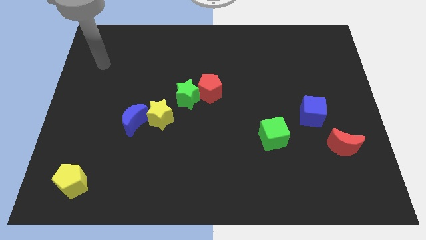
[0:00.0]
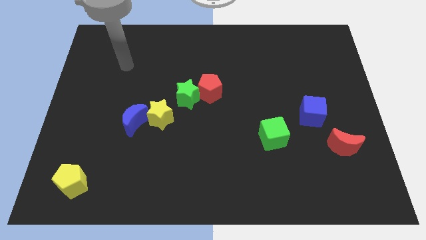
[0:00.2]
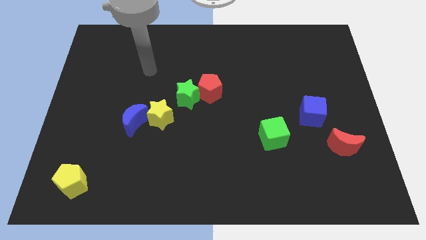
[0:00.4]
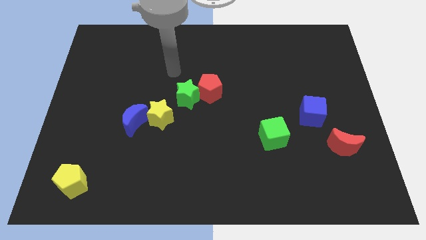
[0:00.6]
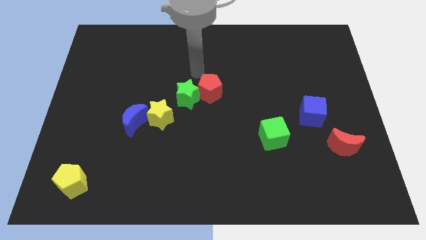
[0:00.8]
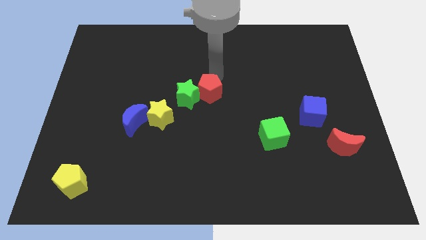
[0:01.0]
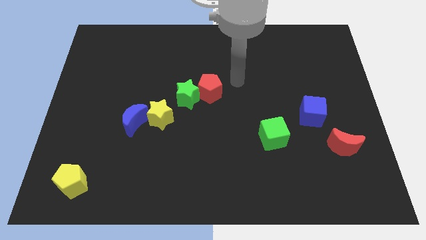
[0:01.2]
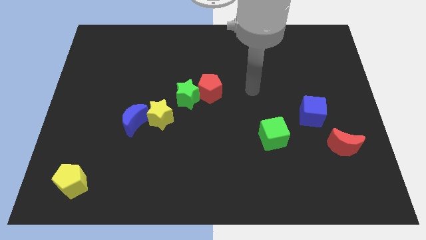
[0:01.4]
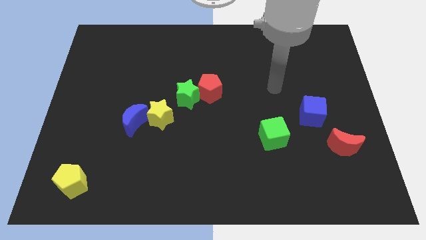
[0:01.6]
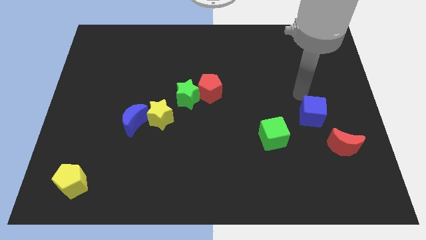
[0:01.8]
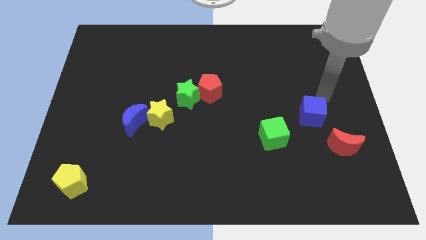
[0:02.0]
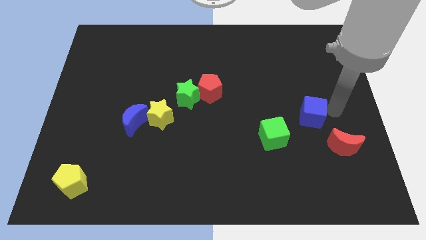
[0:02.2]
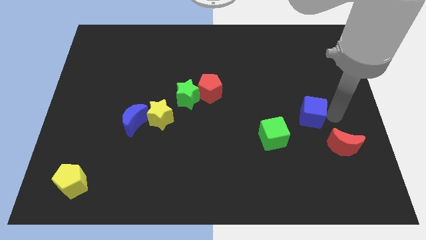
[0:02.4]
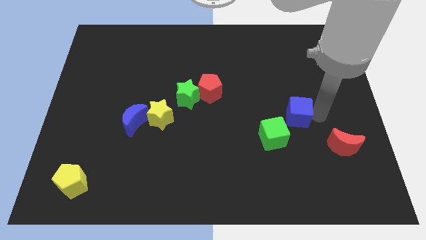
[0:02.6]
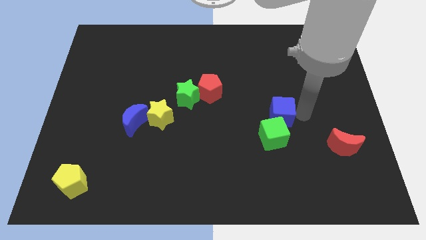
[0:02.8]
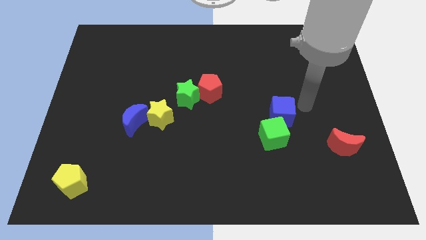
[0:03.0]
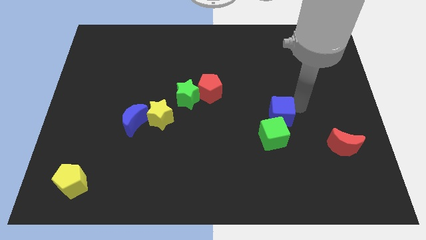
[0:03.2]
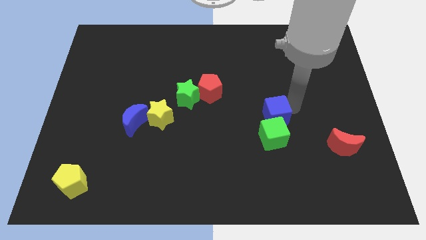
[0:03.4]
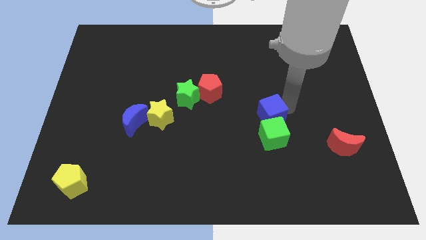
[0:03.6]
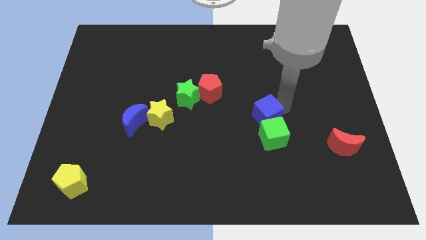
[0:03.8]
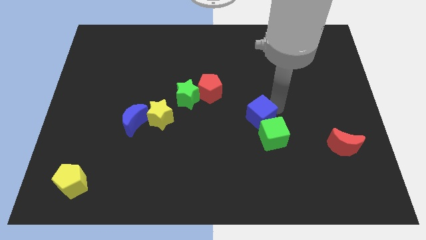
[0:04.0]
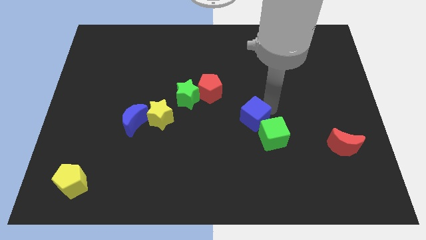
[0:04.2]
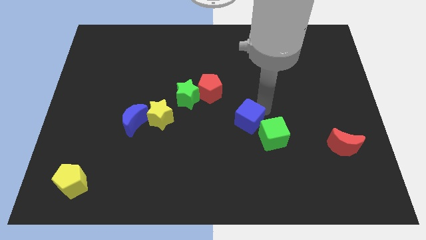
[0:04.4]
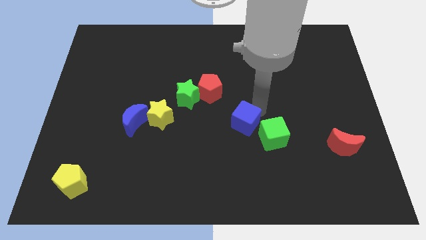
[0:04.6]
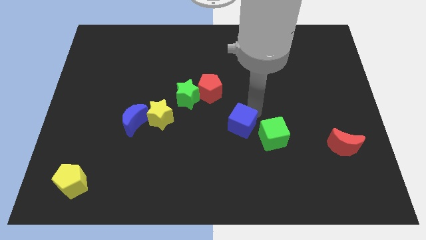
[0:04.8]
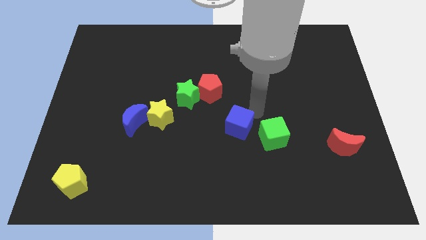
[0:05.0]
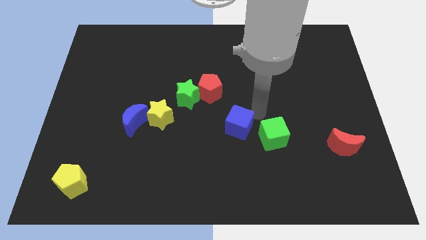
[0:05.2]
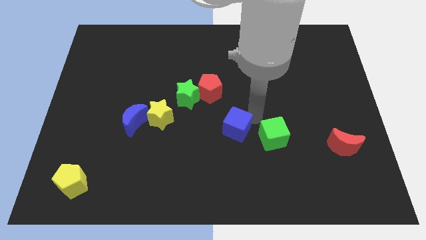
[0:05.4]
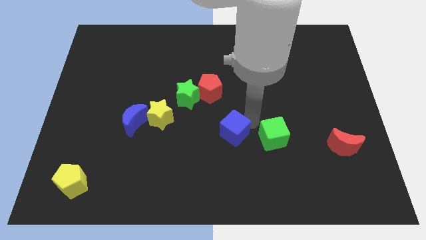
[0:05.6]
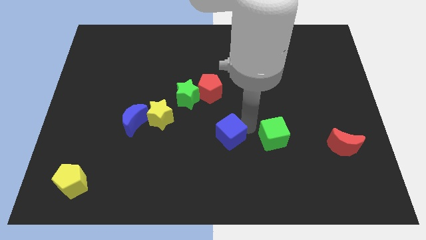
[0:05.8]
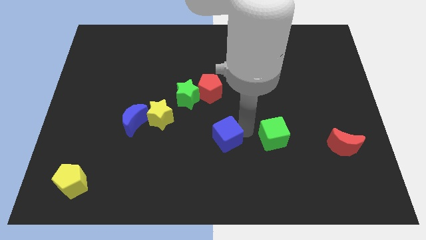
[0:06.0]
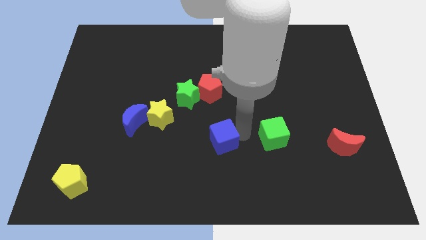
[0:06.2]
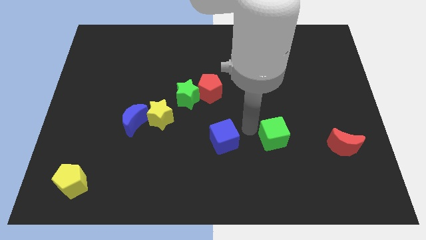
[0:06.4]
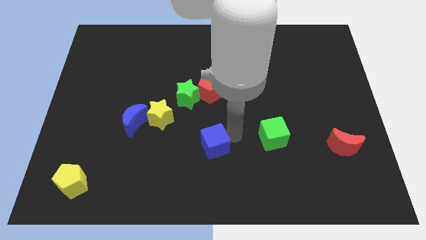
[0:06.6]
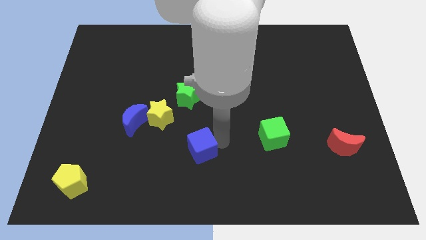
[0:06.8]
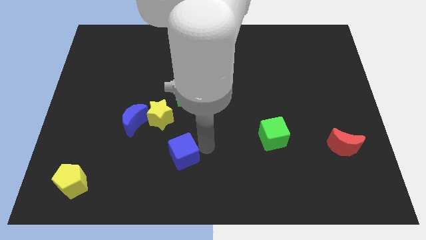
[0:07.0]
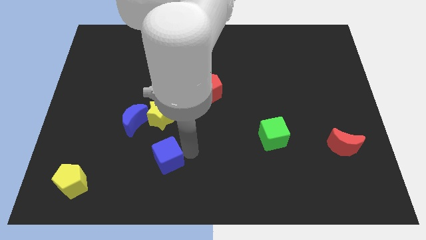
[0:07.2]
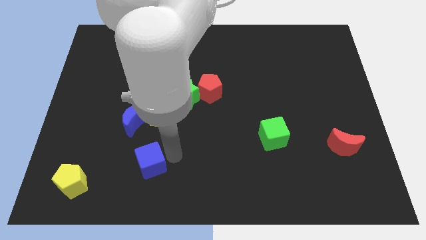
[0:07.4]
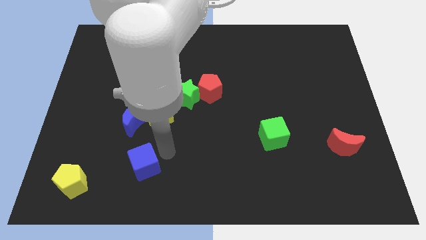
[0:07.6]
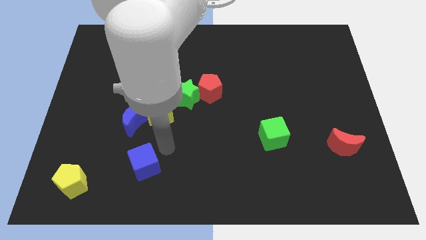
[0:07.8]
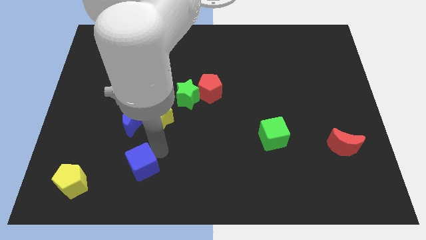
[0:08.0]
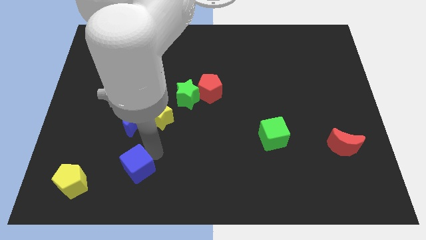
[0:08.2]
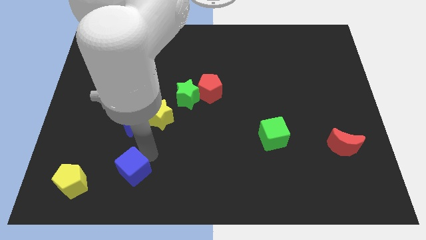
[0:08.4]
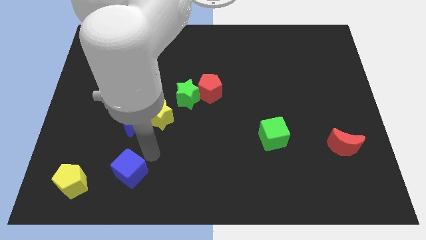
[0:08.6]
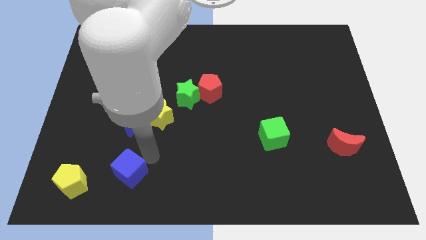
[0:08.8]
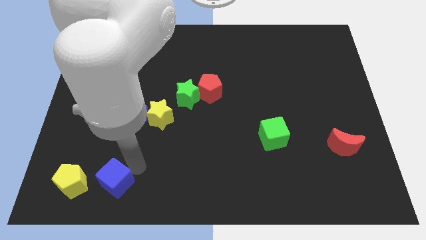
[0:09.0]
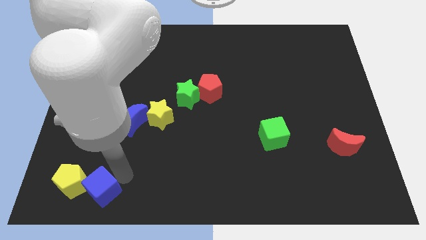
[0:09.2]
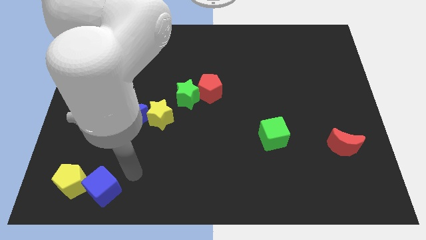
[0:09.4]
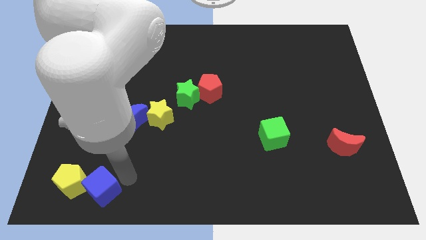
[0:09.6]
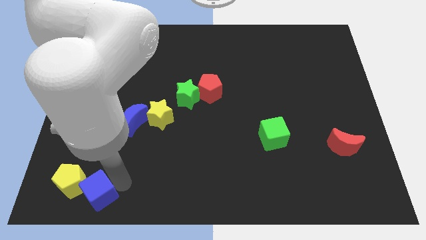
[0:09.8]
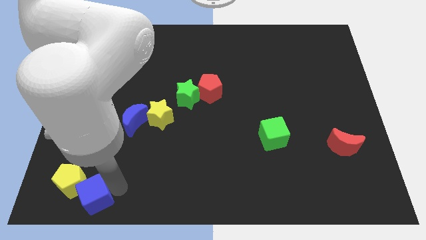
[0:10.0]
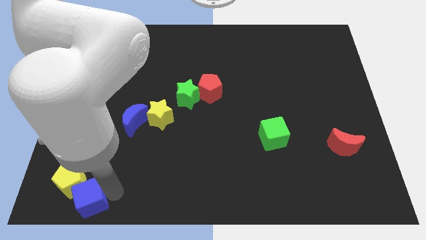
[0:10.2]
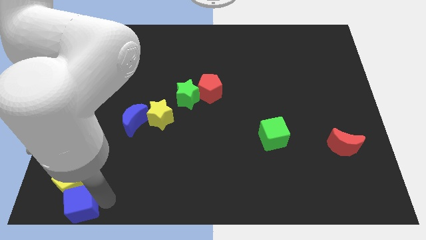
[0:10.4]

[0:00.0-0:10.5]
push the blue cube to the bottom left

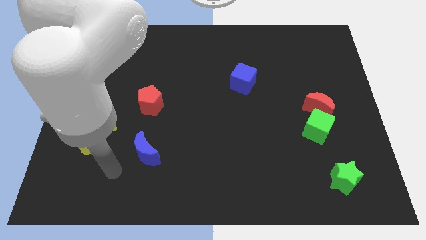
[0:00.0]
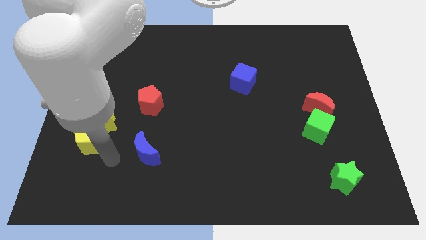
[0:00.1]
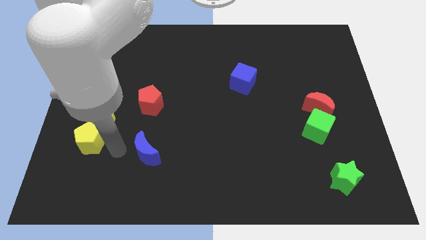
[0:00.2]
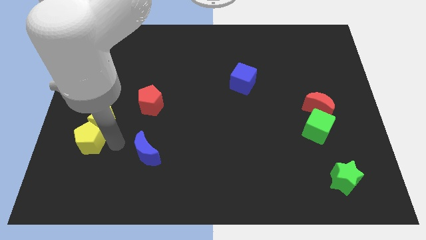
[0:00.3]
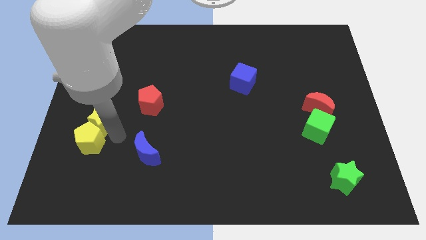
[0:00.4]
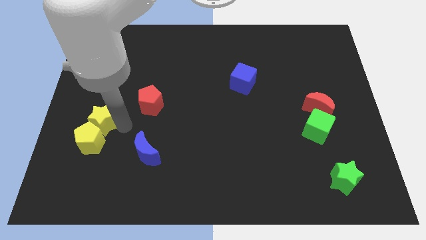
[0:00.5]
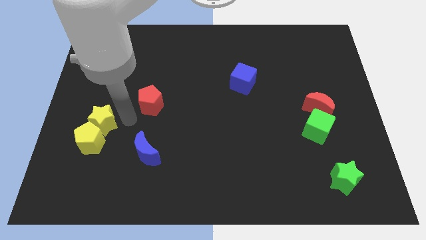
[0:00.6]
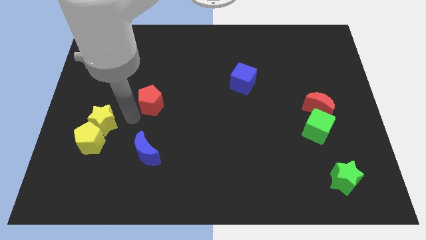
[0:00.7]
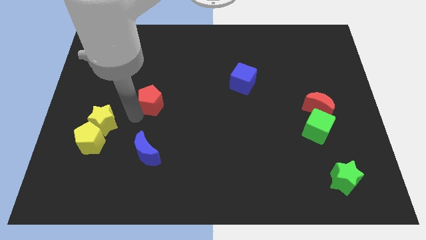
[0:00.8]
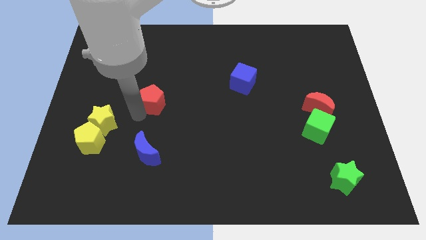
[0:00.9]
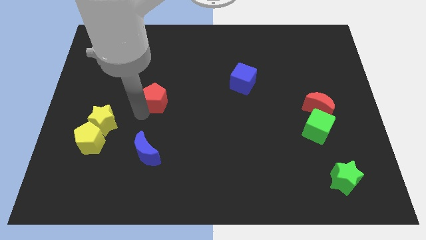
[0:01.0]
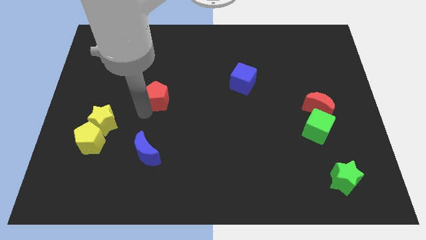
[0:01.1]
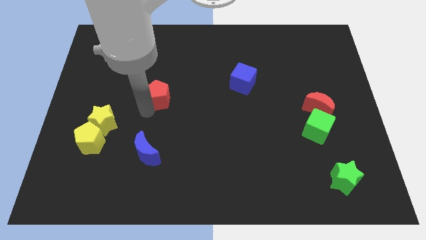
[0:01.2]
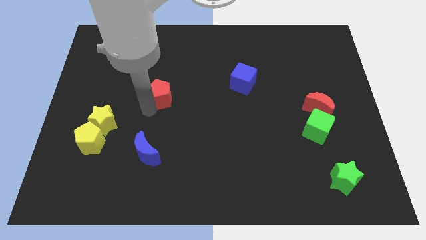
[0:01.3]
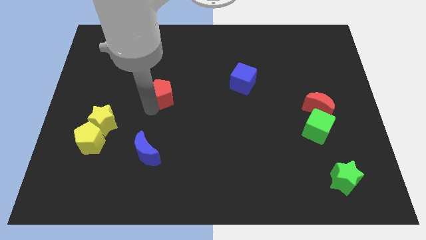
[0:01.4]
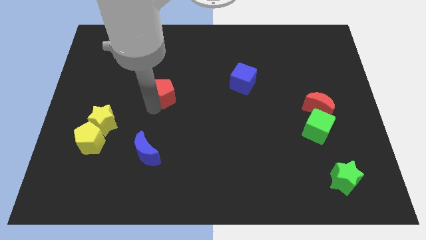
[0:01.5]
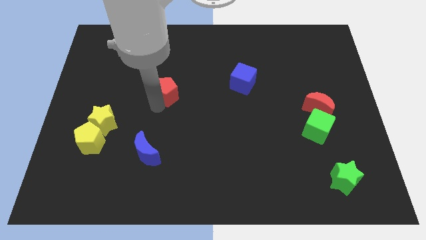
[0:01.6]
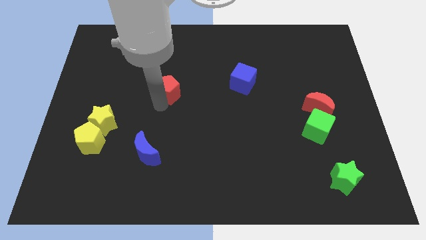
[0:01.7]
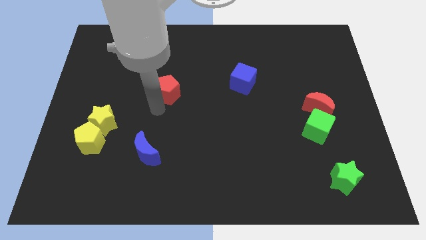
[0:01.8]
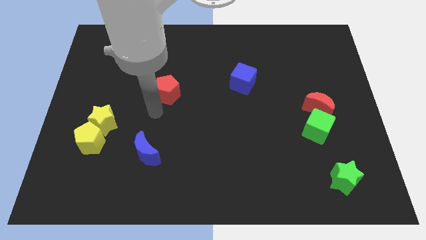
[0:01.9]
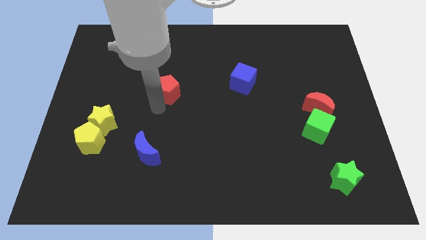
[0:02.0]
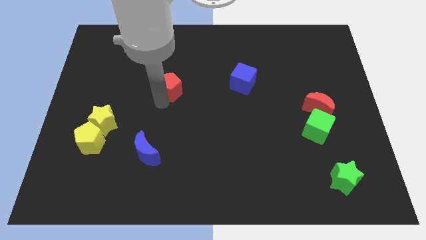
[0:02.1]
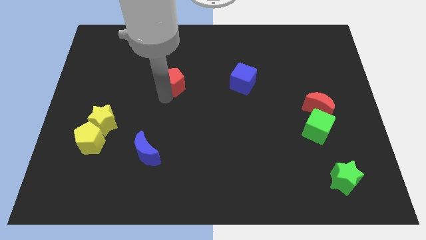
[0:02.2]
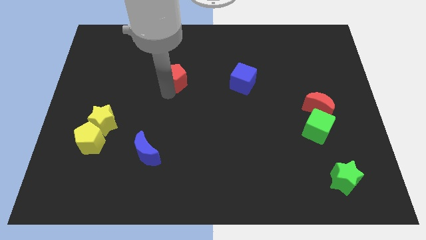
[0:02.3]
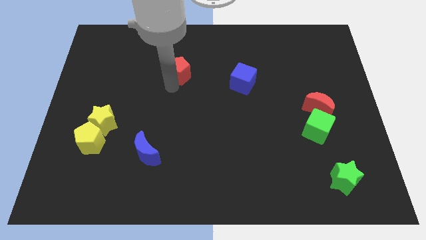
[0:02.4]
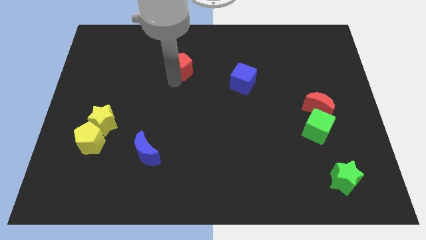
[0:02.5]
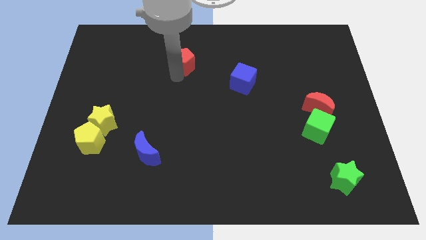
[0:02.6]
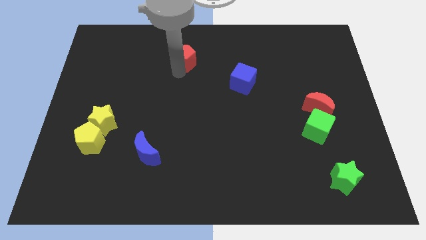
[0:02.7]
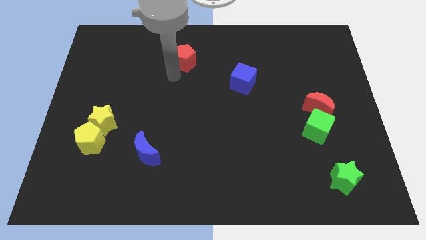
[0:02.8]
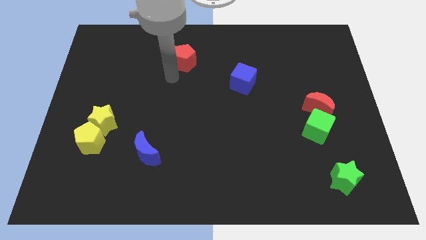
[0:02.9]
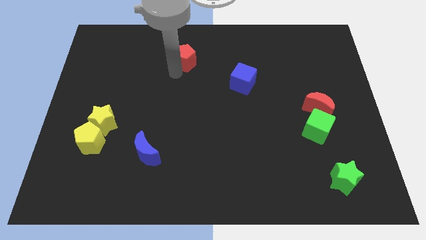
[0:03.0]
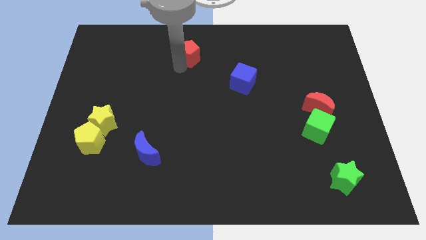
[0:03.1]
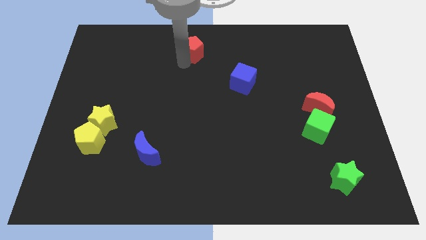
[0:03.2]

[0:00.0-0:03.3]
put the red pentagon to the top side
